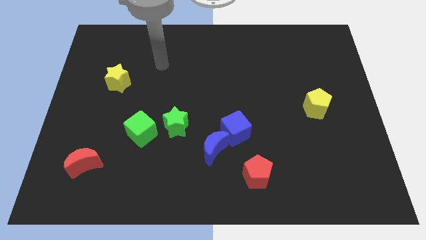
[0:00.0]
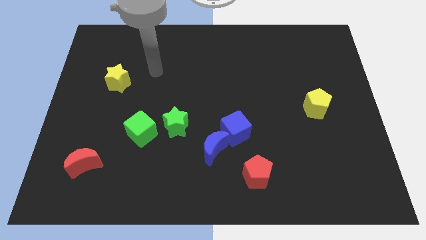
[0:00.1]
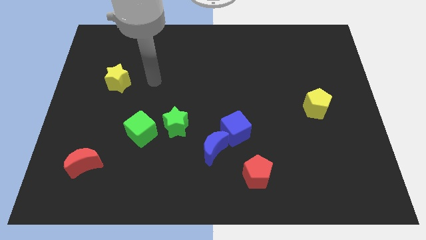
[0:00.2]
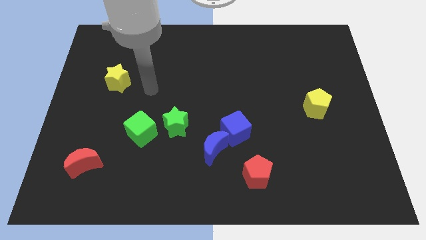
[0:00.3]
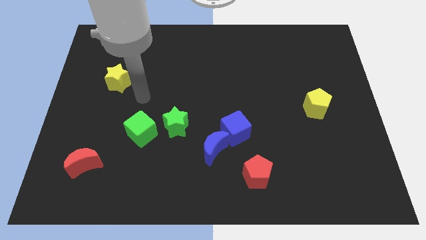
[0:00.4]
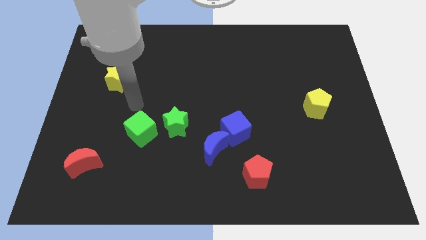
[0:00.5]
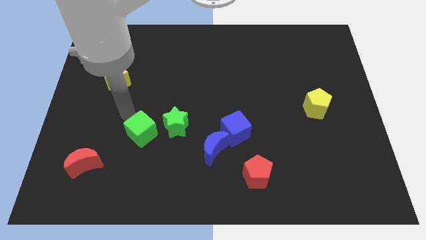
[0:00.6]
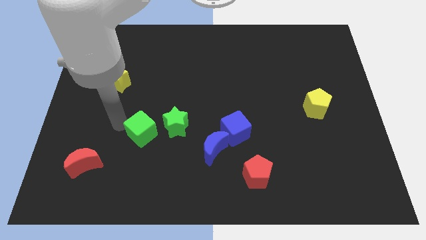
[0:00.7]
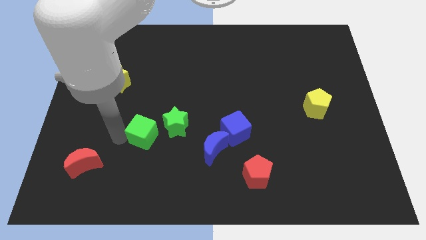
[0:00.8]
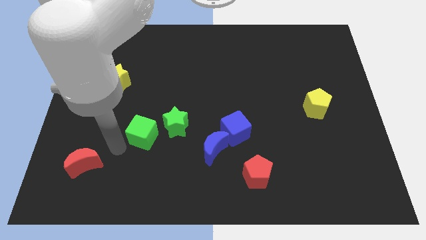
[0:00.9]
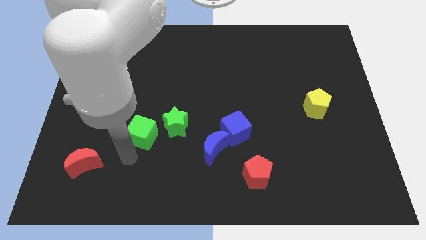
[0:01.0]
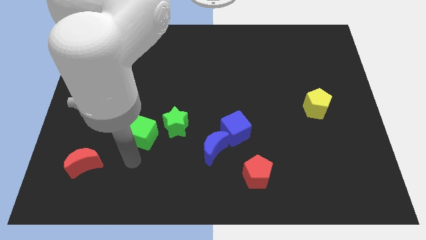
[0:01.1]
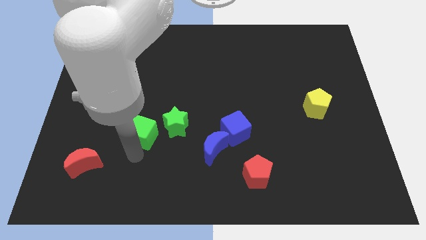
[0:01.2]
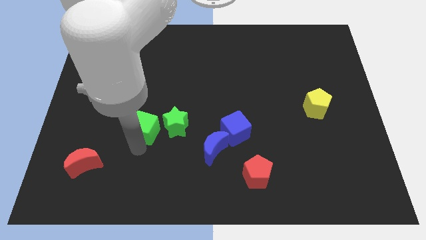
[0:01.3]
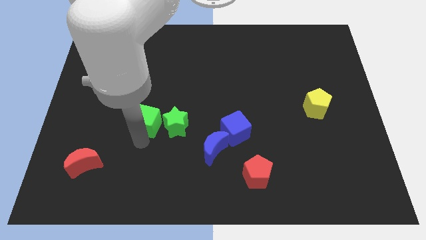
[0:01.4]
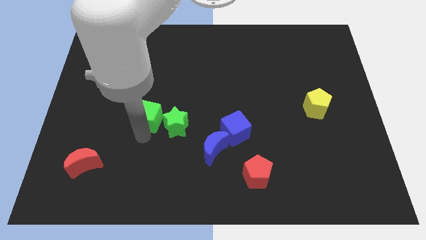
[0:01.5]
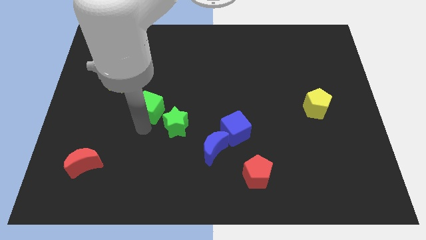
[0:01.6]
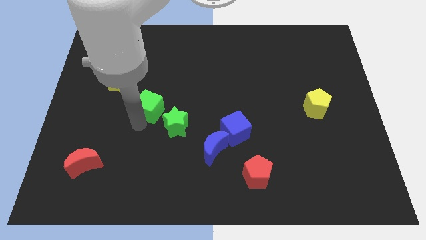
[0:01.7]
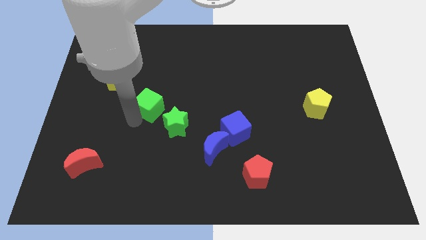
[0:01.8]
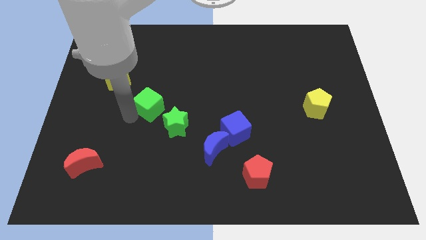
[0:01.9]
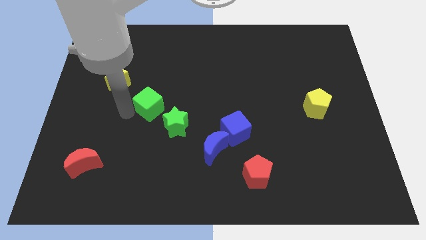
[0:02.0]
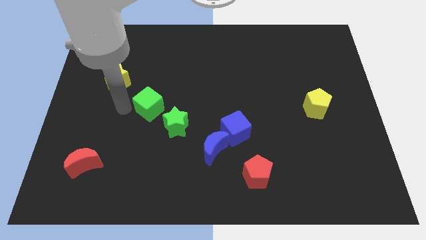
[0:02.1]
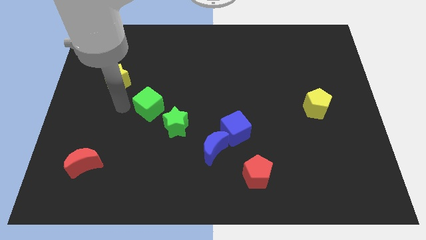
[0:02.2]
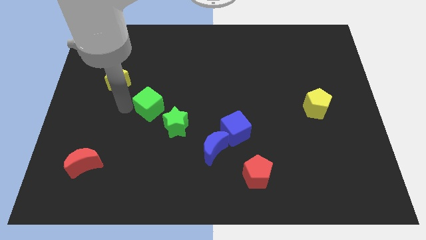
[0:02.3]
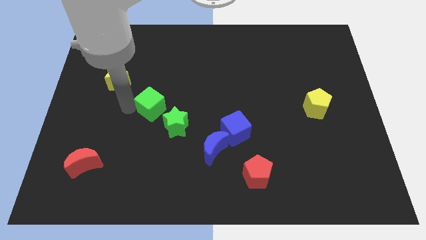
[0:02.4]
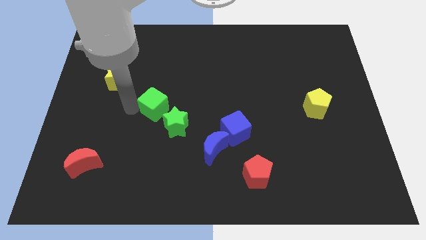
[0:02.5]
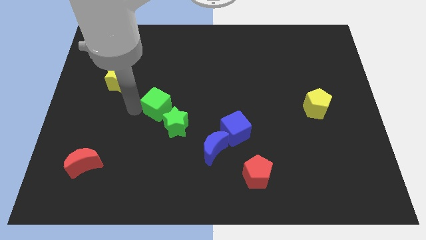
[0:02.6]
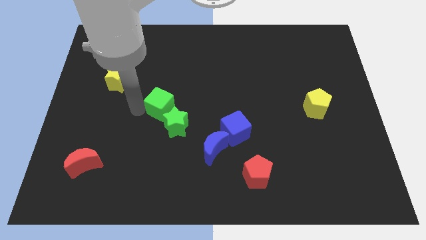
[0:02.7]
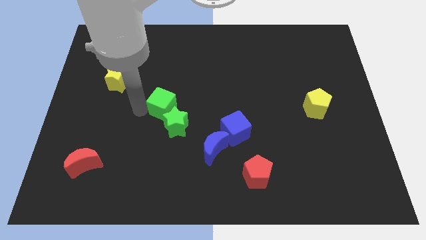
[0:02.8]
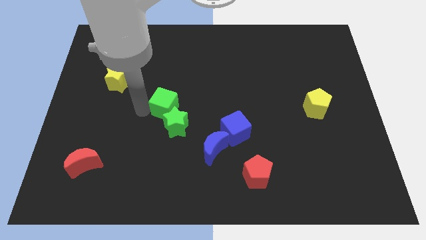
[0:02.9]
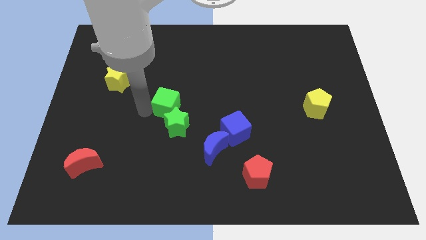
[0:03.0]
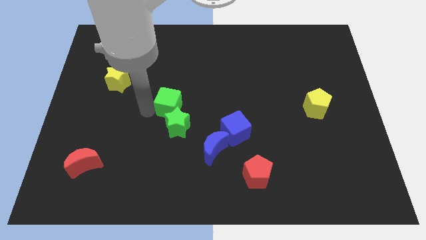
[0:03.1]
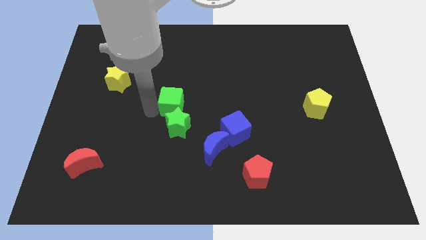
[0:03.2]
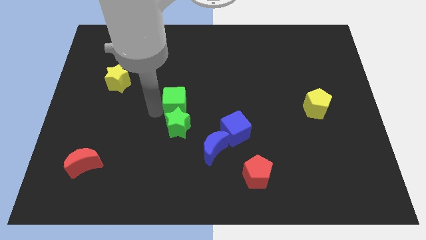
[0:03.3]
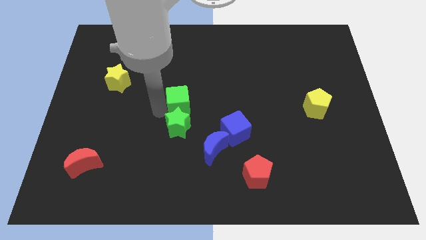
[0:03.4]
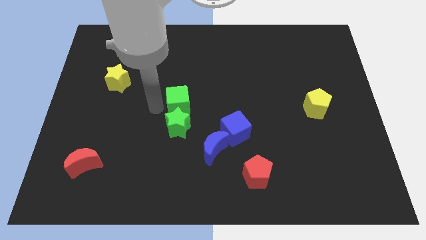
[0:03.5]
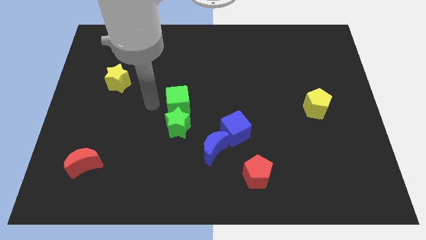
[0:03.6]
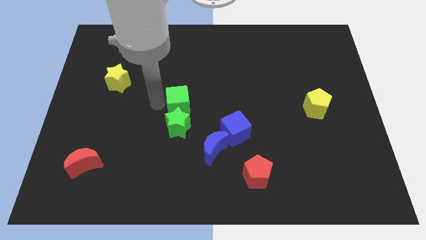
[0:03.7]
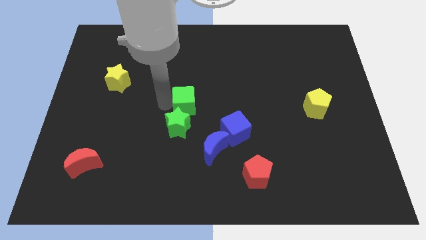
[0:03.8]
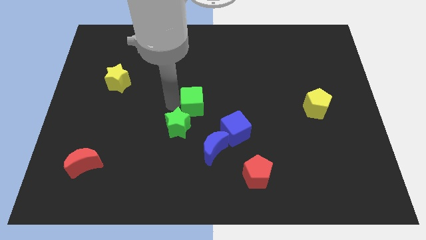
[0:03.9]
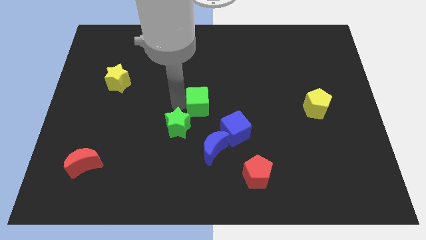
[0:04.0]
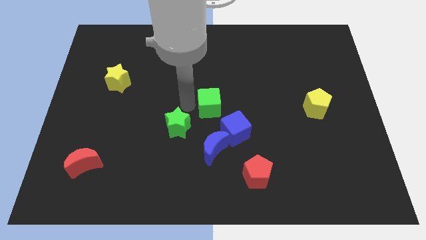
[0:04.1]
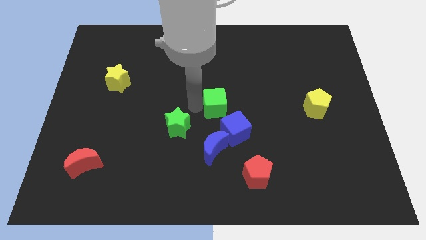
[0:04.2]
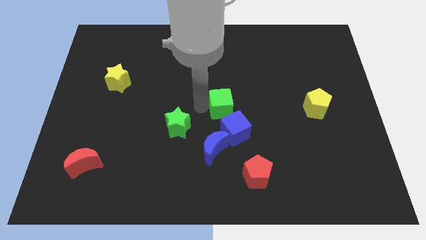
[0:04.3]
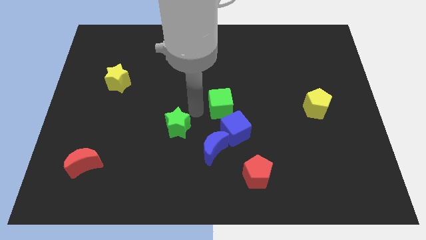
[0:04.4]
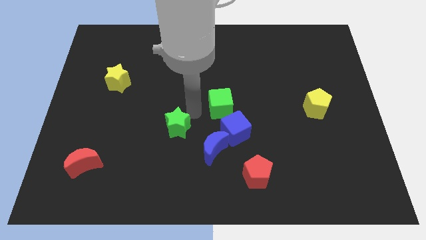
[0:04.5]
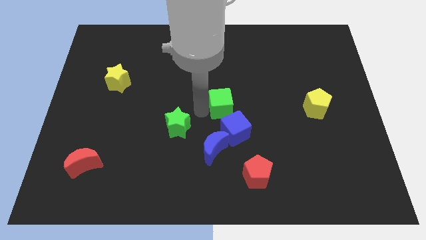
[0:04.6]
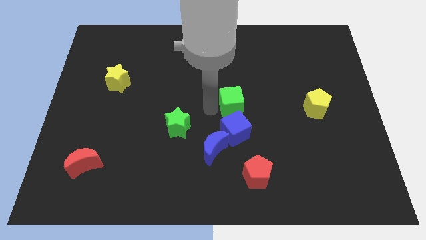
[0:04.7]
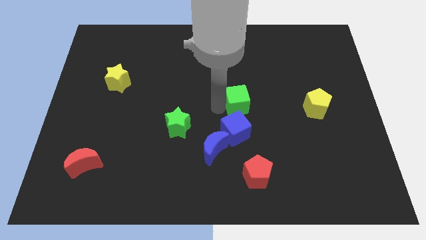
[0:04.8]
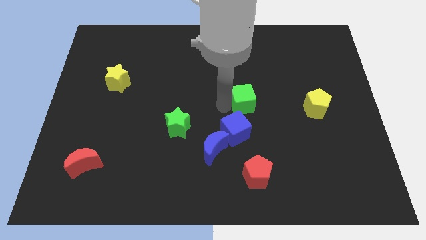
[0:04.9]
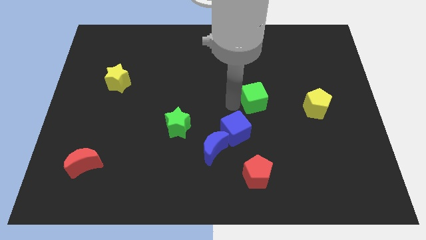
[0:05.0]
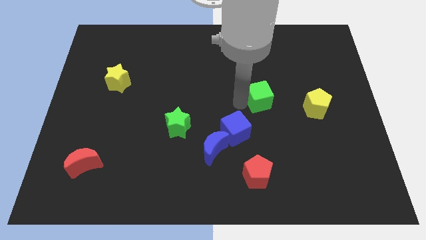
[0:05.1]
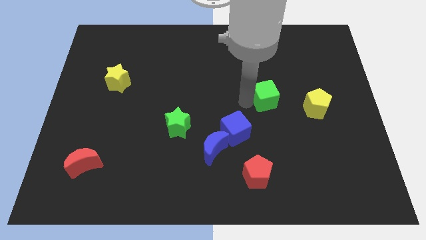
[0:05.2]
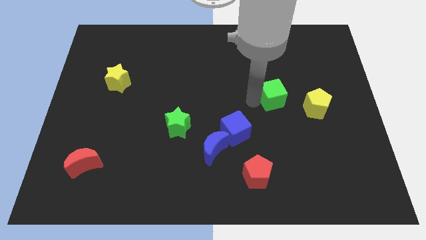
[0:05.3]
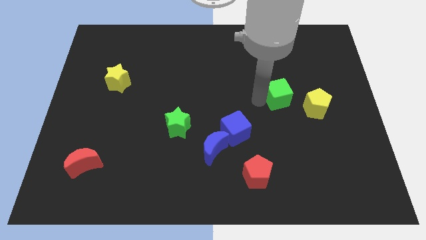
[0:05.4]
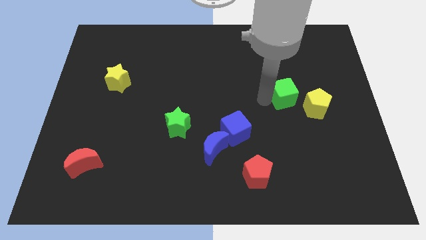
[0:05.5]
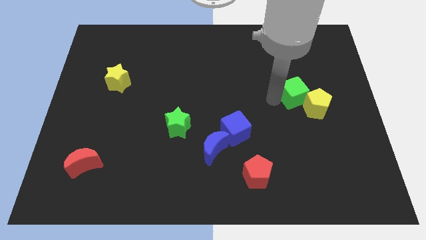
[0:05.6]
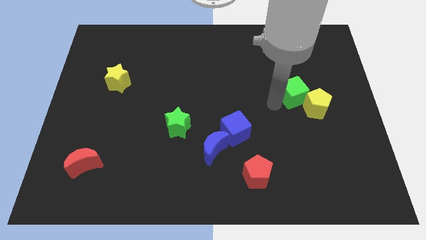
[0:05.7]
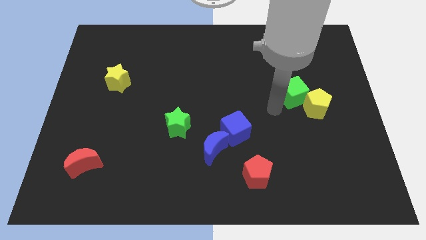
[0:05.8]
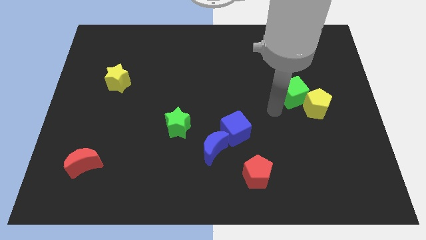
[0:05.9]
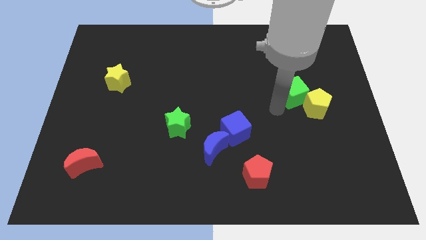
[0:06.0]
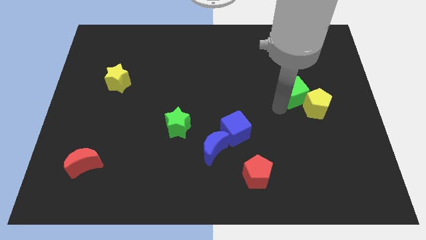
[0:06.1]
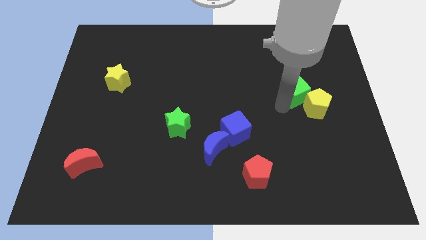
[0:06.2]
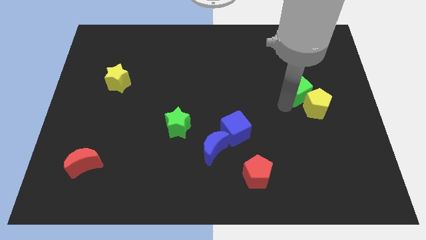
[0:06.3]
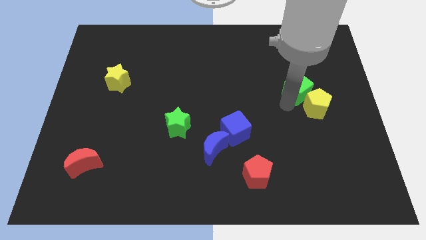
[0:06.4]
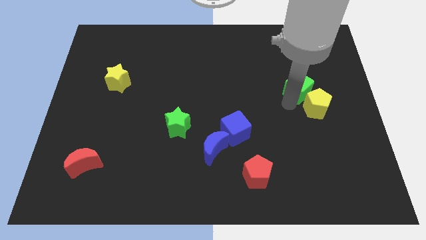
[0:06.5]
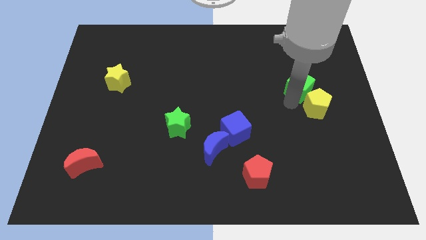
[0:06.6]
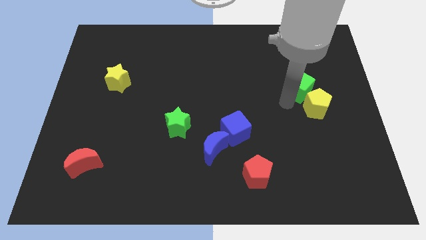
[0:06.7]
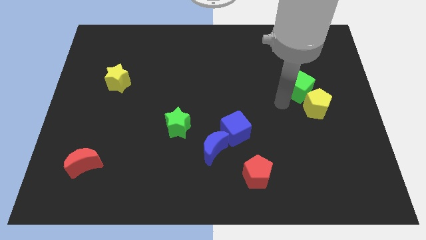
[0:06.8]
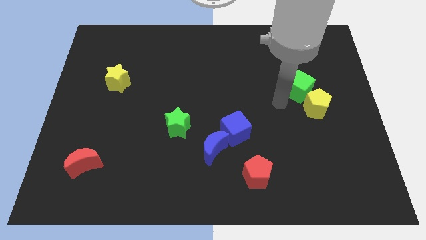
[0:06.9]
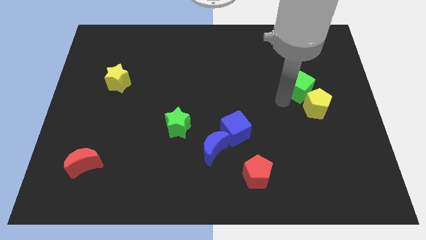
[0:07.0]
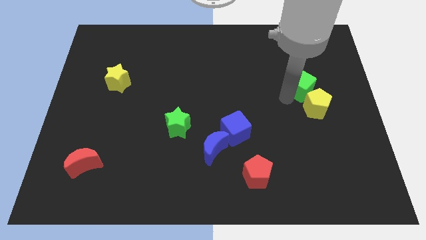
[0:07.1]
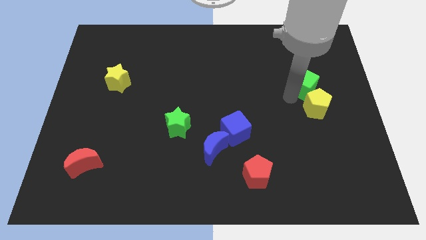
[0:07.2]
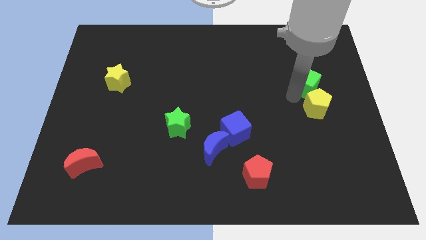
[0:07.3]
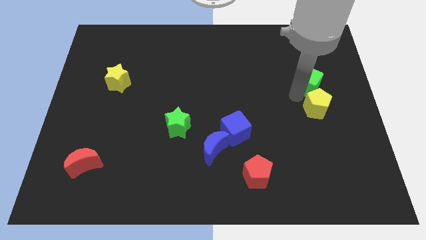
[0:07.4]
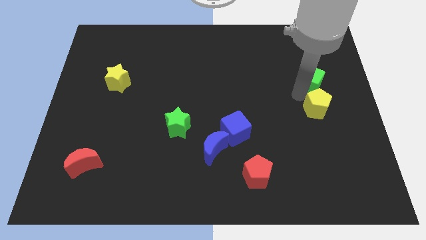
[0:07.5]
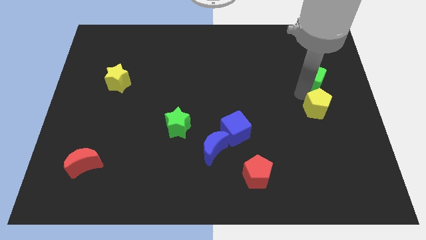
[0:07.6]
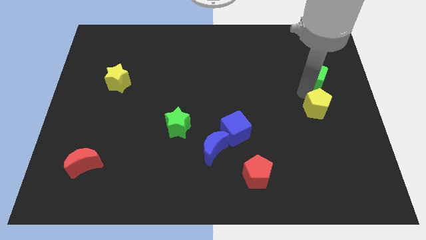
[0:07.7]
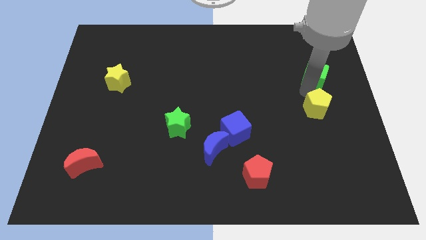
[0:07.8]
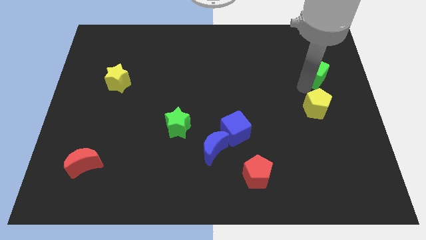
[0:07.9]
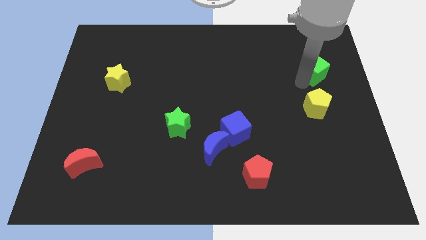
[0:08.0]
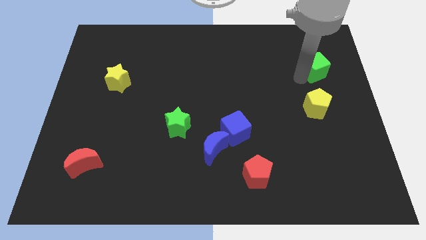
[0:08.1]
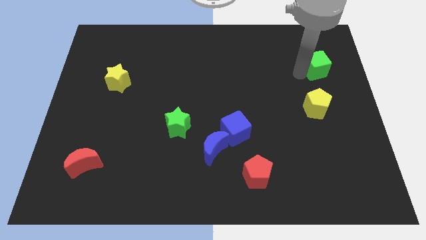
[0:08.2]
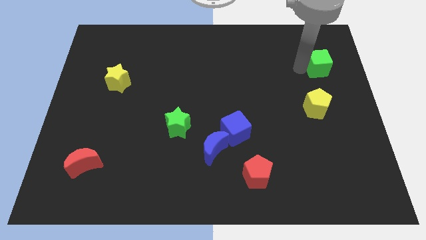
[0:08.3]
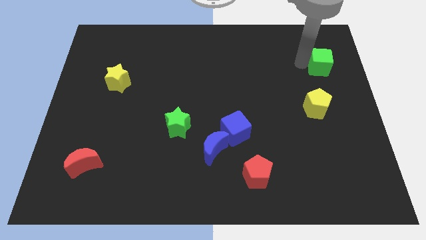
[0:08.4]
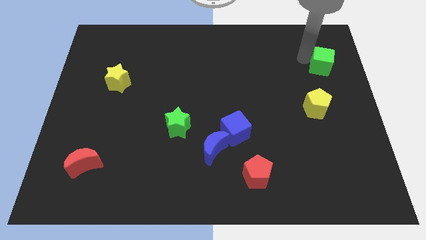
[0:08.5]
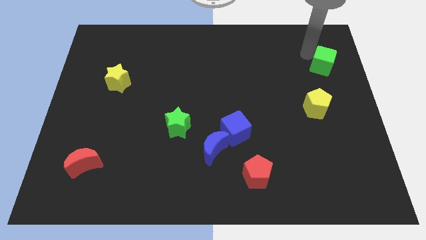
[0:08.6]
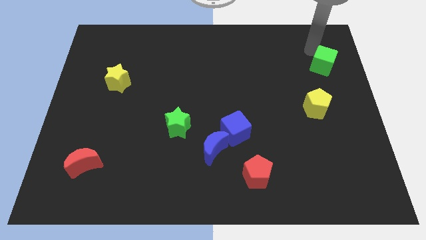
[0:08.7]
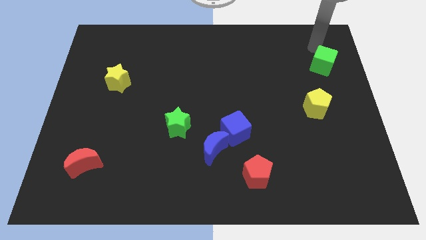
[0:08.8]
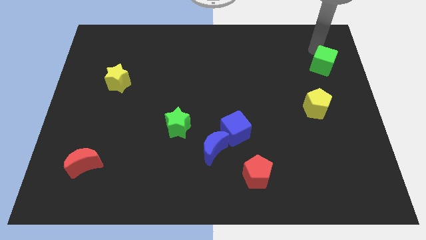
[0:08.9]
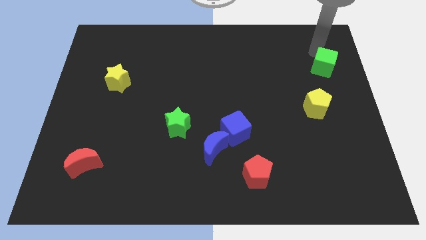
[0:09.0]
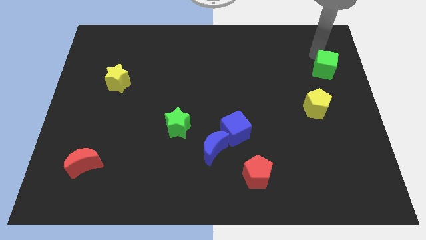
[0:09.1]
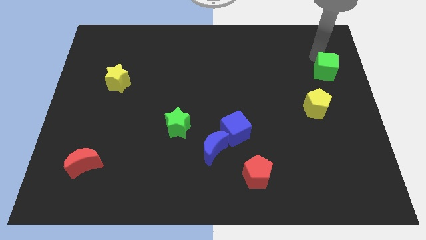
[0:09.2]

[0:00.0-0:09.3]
put the green cube to the center right
